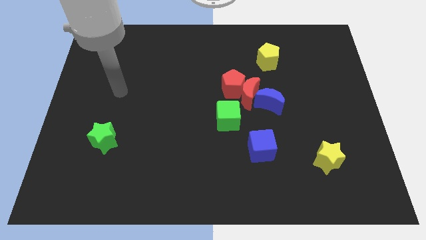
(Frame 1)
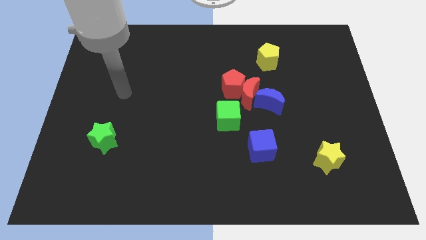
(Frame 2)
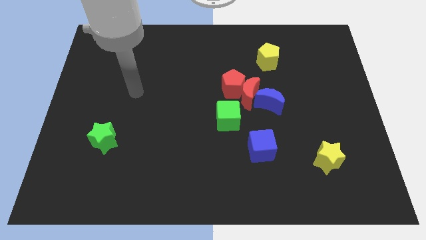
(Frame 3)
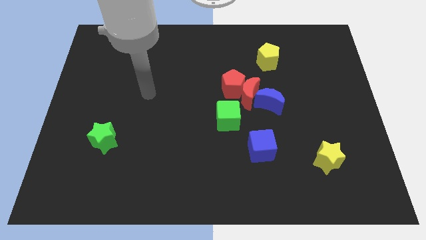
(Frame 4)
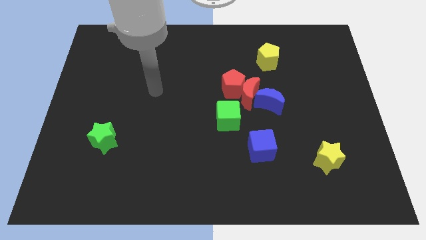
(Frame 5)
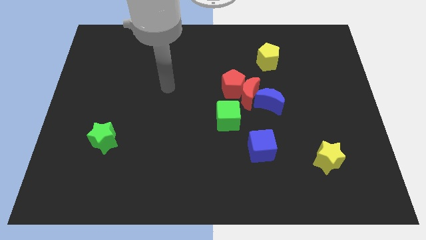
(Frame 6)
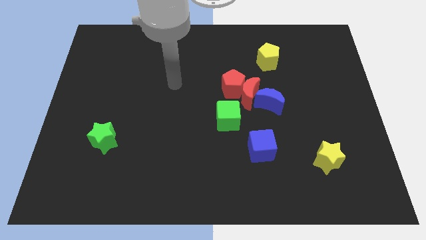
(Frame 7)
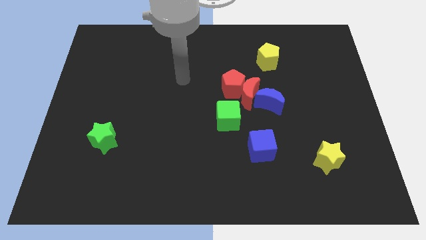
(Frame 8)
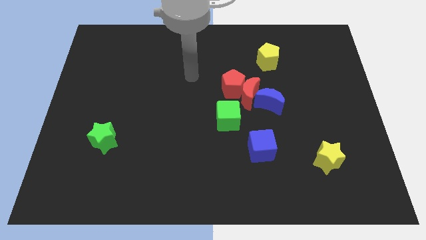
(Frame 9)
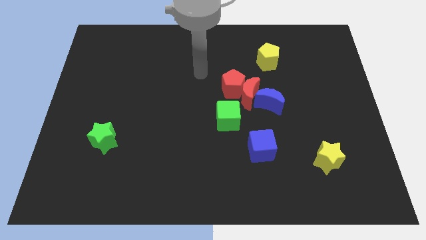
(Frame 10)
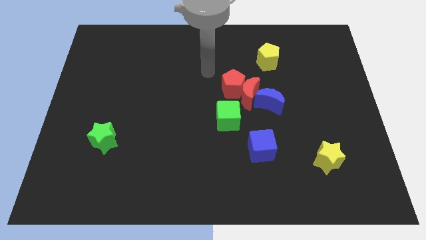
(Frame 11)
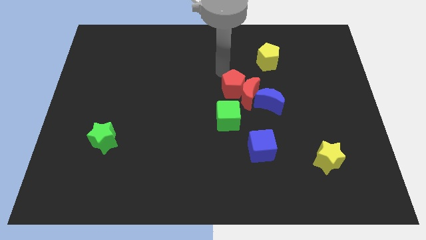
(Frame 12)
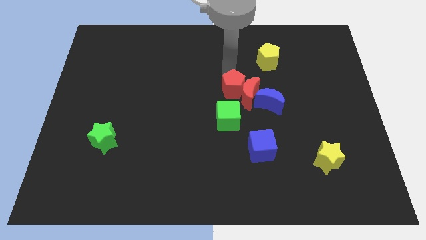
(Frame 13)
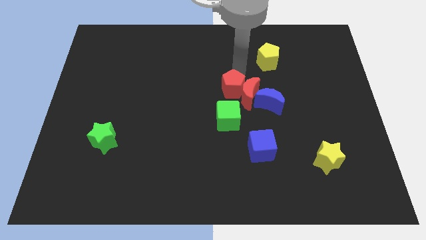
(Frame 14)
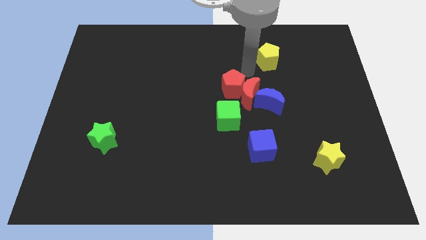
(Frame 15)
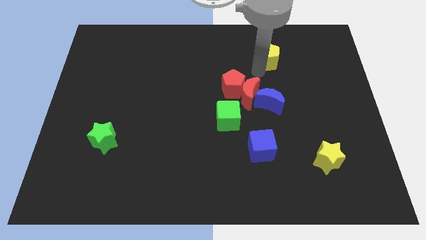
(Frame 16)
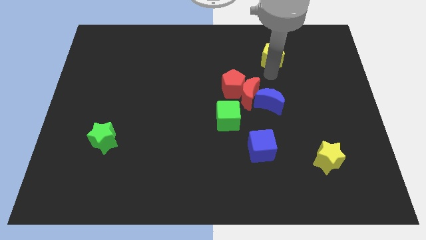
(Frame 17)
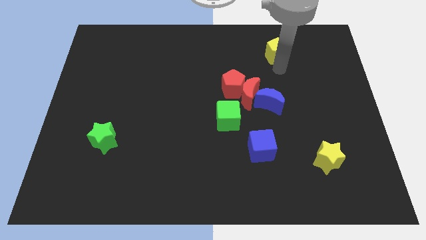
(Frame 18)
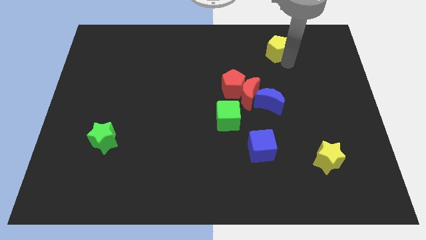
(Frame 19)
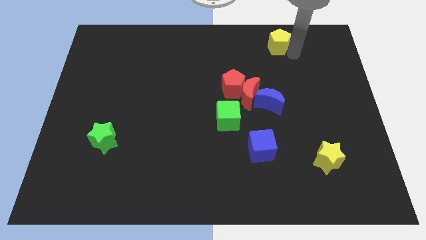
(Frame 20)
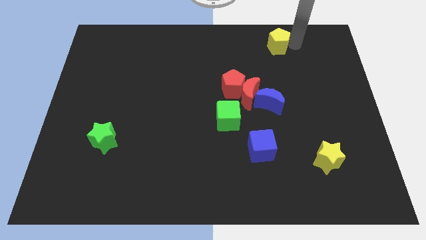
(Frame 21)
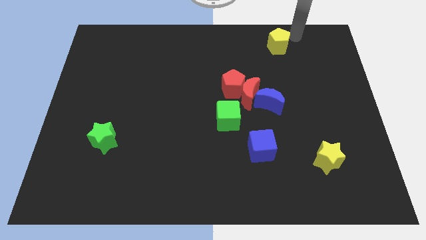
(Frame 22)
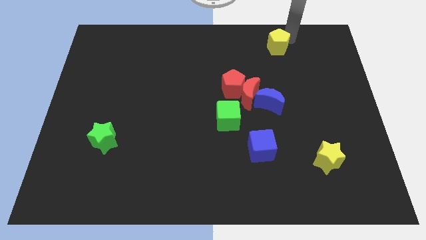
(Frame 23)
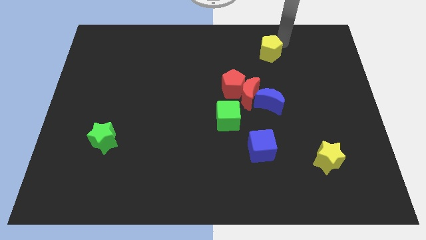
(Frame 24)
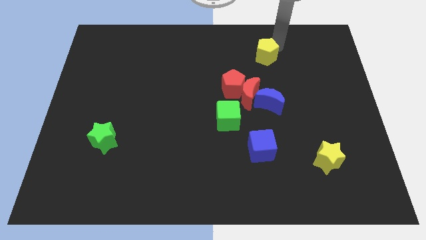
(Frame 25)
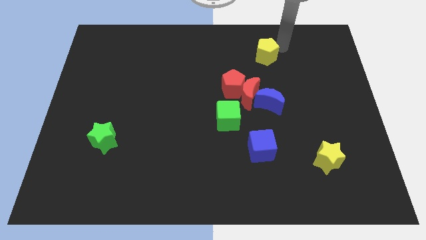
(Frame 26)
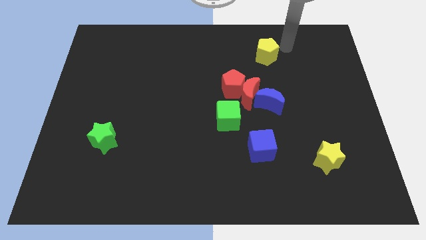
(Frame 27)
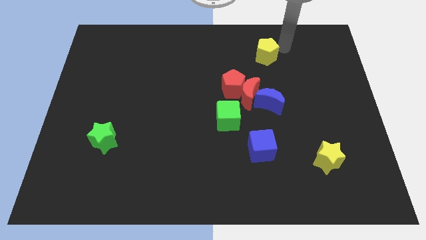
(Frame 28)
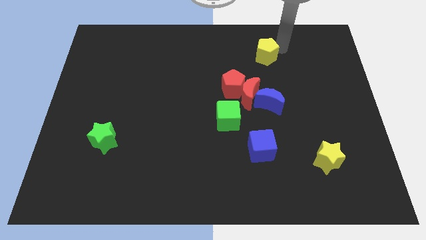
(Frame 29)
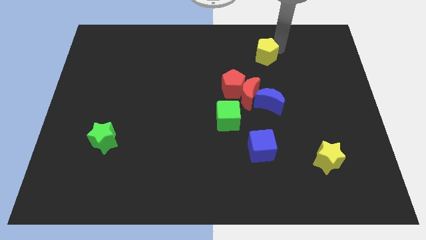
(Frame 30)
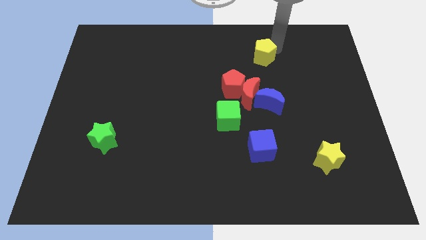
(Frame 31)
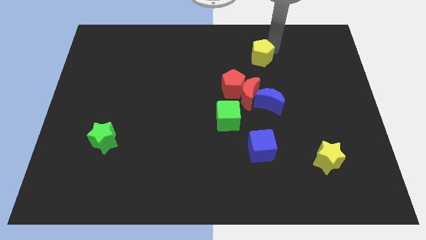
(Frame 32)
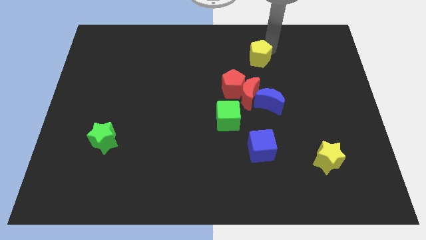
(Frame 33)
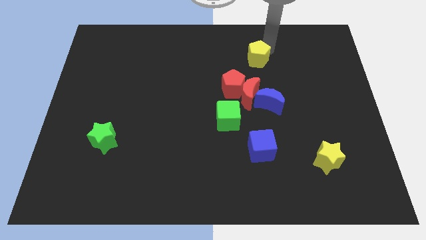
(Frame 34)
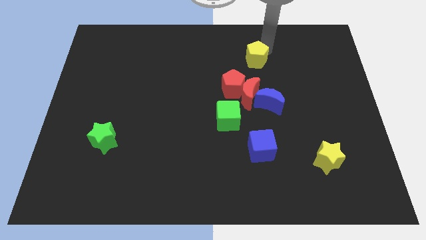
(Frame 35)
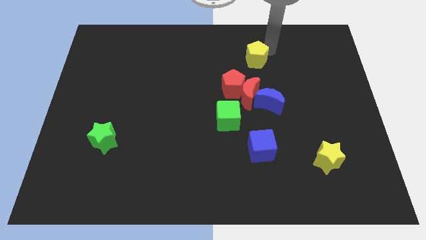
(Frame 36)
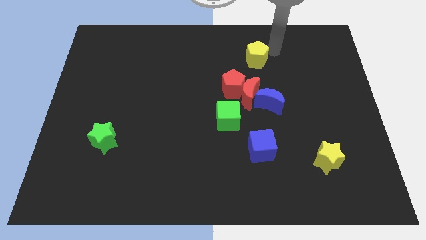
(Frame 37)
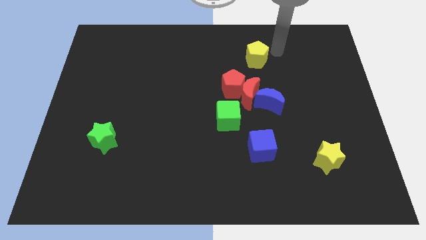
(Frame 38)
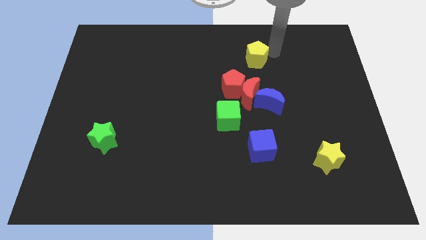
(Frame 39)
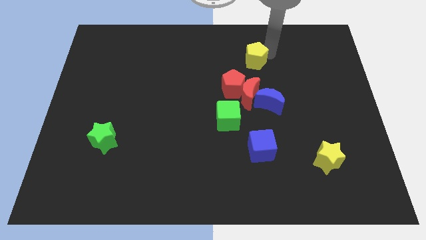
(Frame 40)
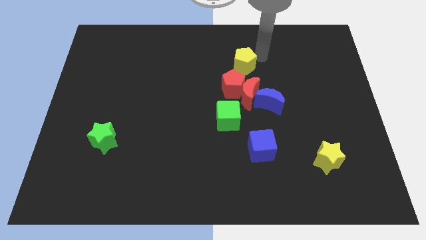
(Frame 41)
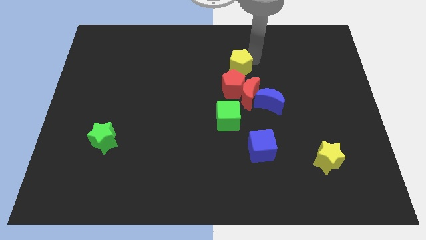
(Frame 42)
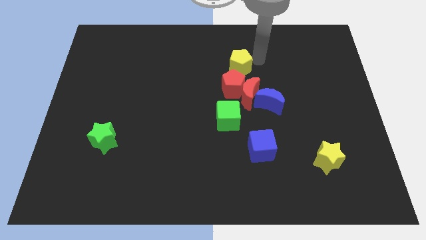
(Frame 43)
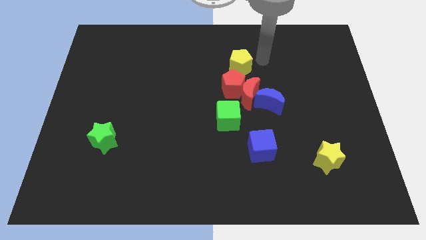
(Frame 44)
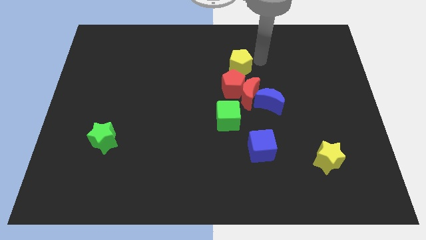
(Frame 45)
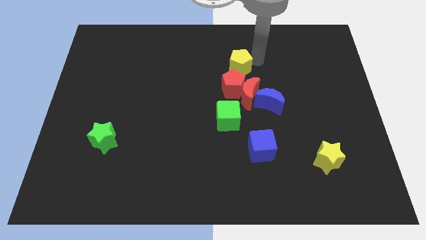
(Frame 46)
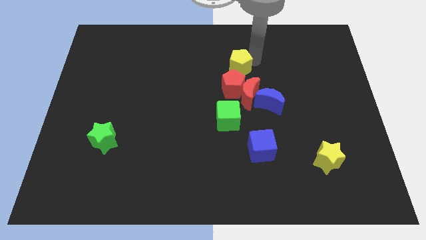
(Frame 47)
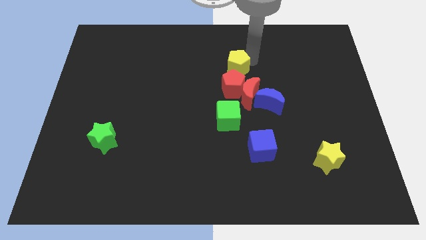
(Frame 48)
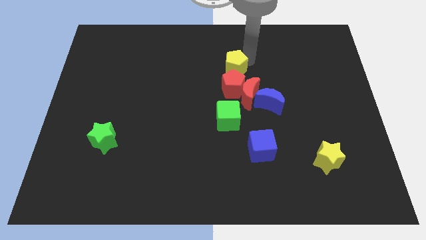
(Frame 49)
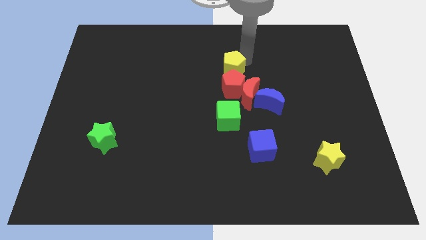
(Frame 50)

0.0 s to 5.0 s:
move the yellow pentagon to the top left side of the red pentagon

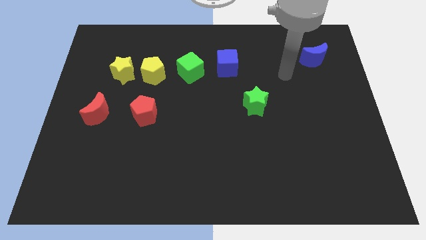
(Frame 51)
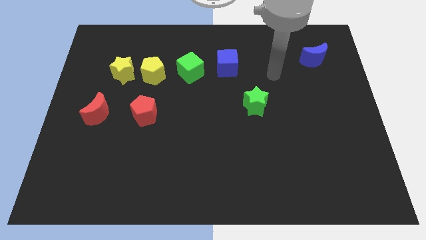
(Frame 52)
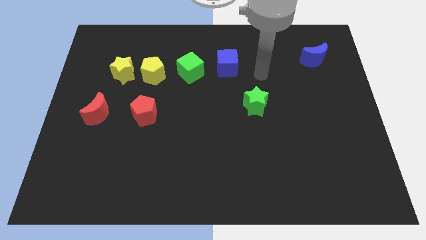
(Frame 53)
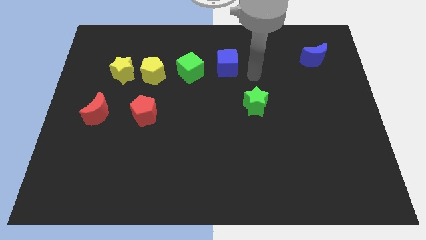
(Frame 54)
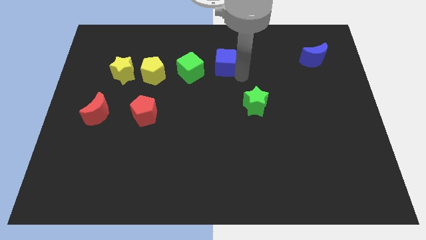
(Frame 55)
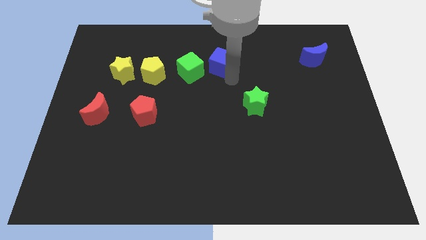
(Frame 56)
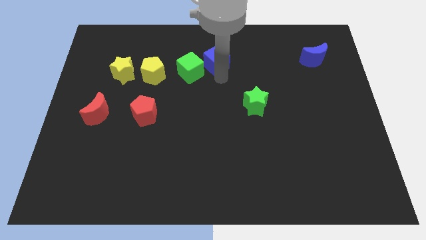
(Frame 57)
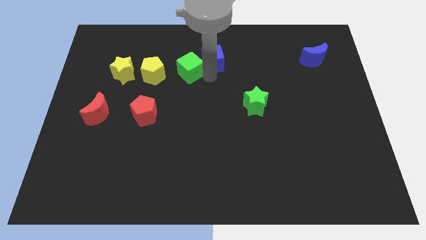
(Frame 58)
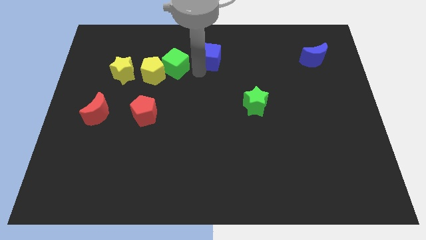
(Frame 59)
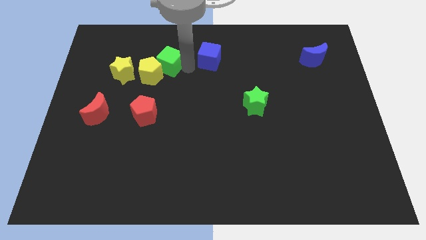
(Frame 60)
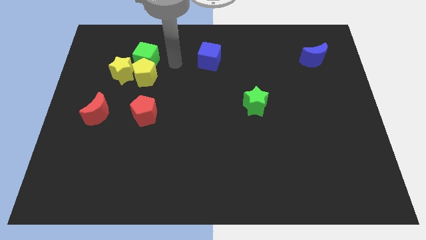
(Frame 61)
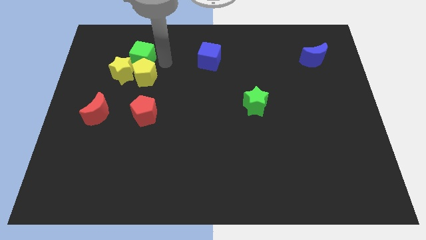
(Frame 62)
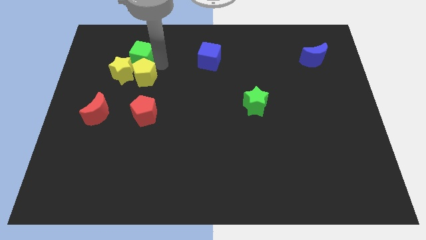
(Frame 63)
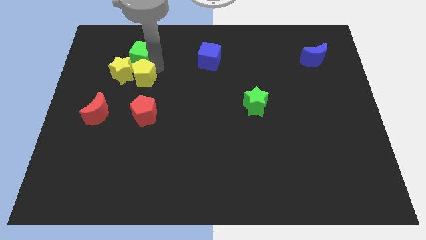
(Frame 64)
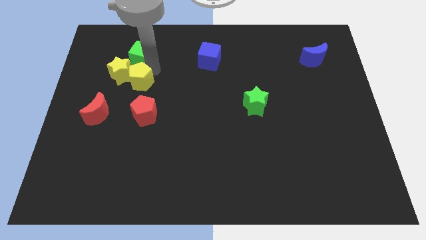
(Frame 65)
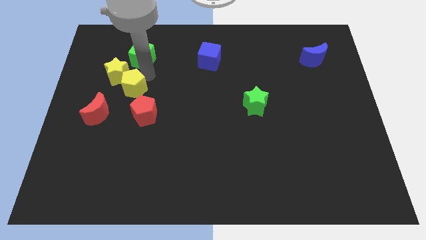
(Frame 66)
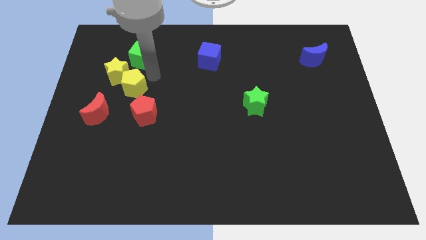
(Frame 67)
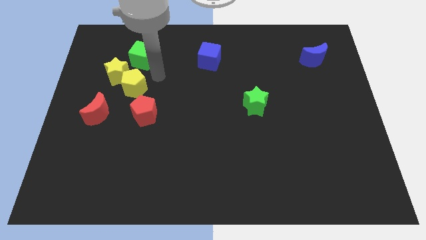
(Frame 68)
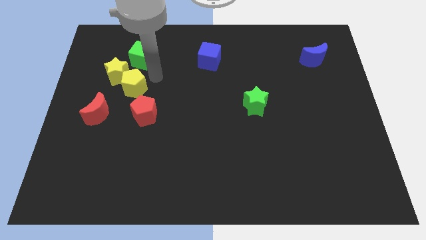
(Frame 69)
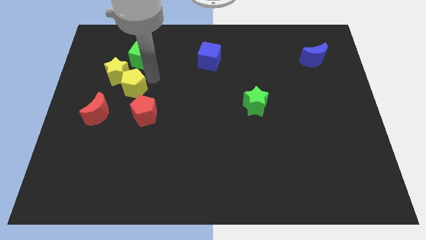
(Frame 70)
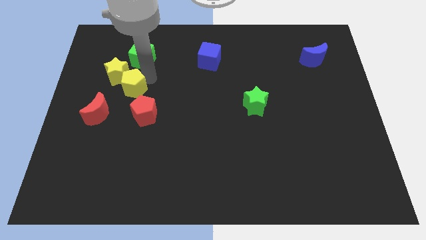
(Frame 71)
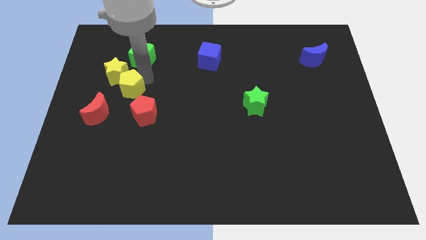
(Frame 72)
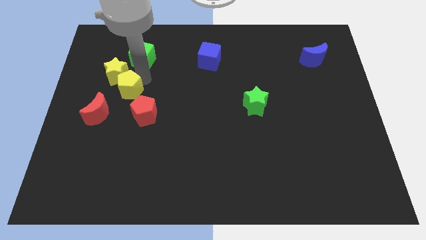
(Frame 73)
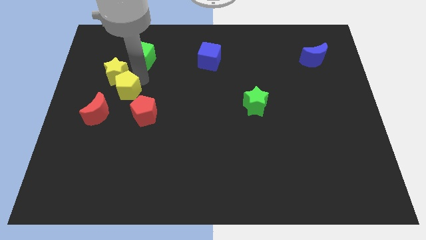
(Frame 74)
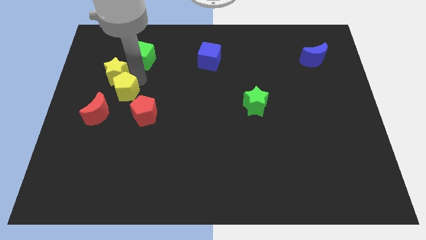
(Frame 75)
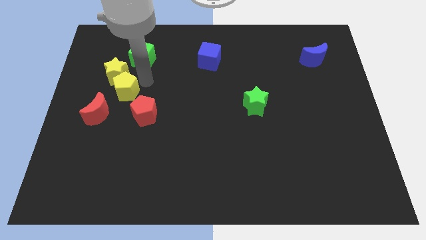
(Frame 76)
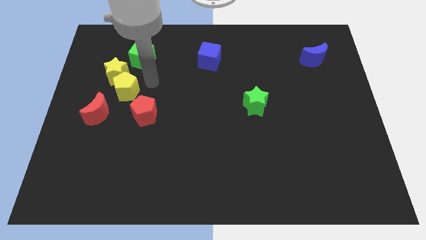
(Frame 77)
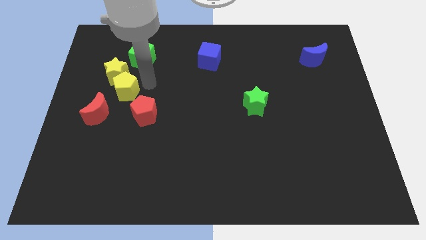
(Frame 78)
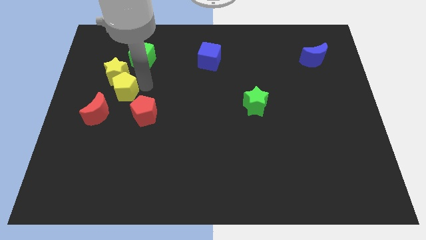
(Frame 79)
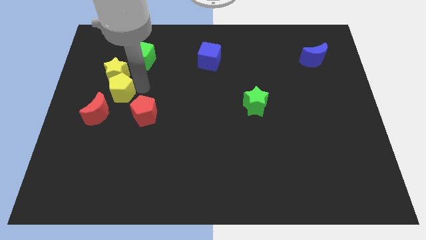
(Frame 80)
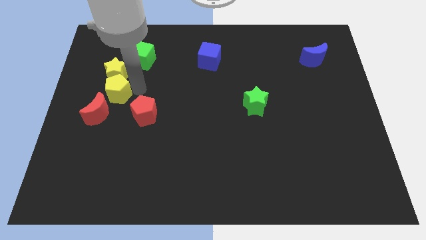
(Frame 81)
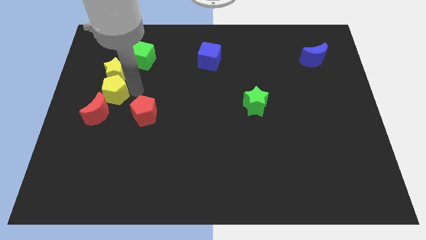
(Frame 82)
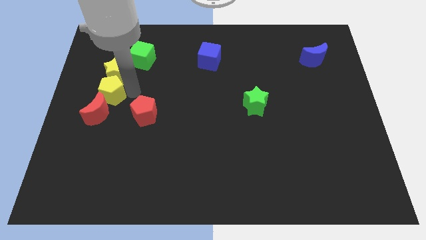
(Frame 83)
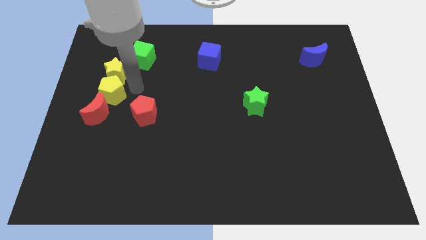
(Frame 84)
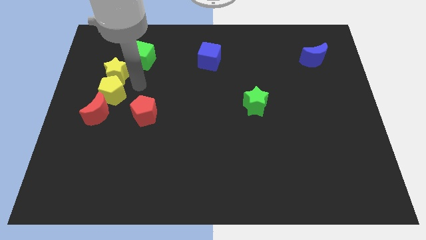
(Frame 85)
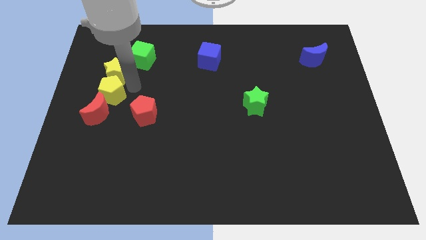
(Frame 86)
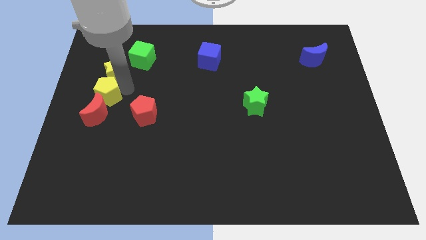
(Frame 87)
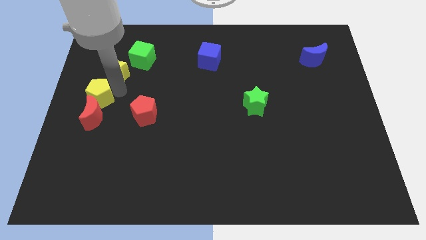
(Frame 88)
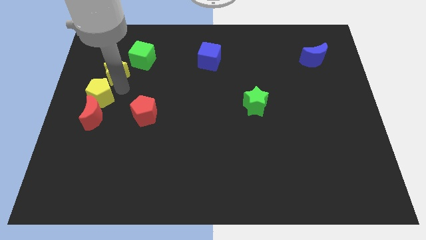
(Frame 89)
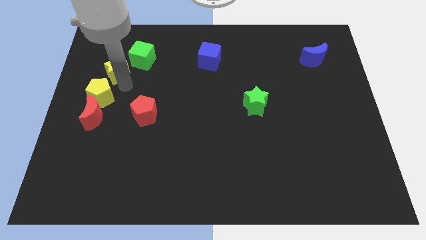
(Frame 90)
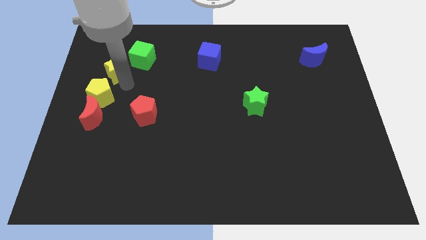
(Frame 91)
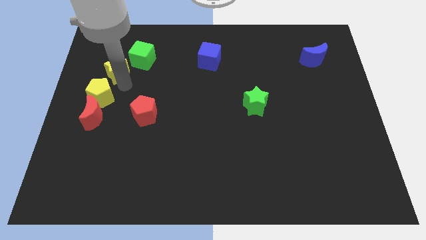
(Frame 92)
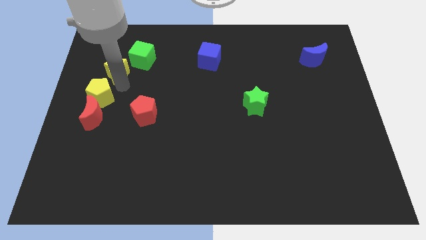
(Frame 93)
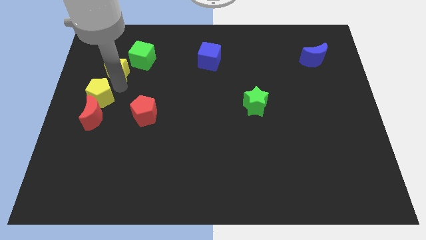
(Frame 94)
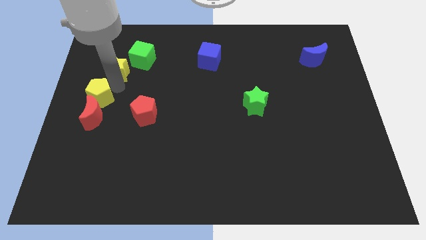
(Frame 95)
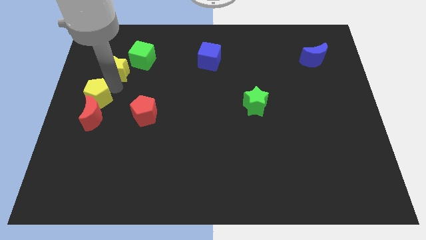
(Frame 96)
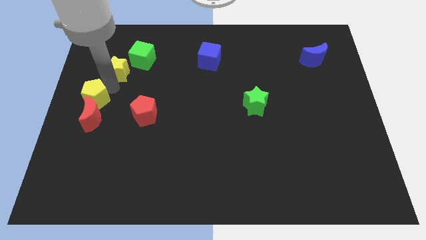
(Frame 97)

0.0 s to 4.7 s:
slide the yellow pentagon to the left of the red pentagon
